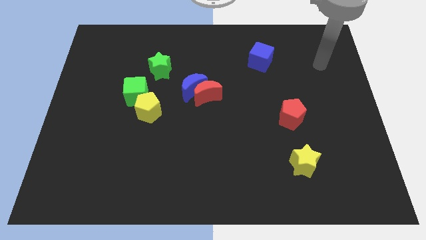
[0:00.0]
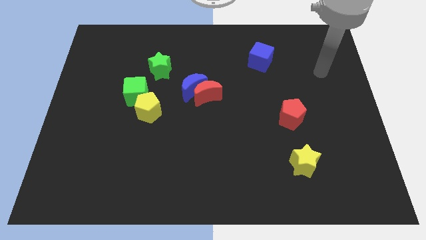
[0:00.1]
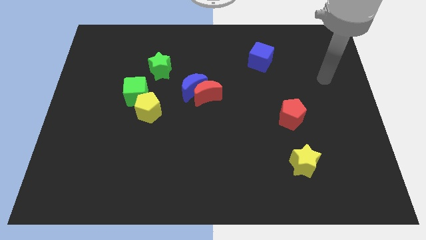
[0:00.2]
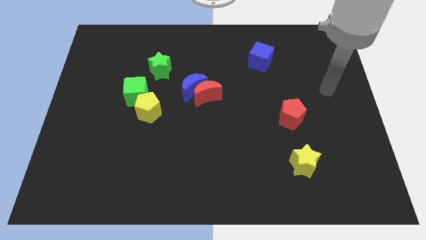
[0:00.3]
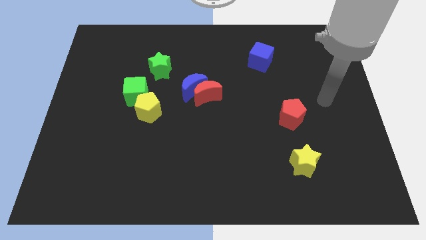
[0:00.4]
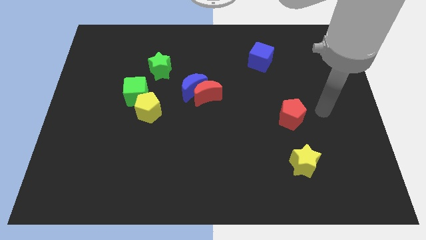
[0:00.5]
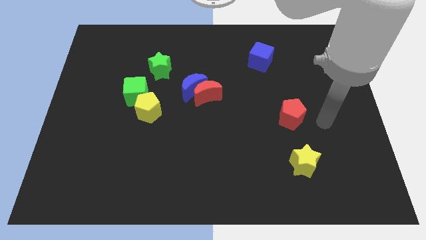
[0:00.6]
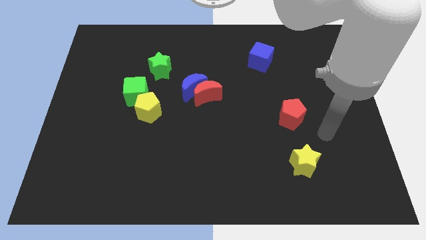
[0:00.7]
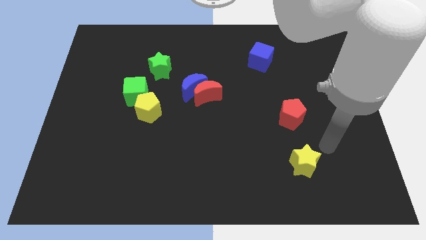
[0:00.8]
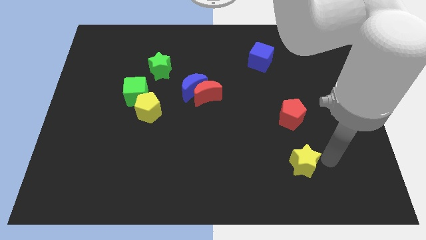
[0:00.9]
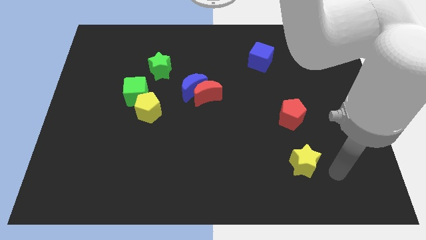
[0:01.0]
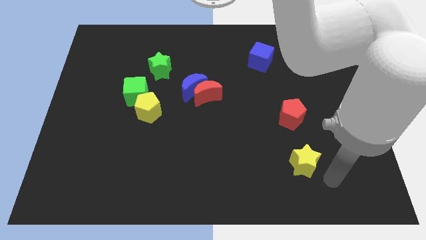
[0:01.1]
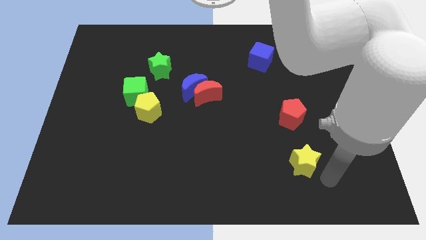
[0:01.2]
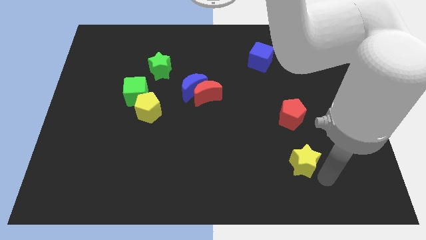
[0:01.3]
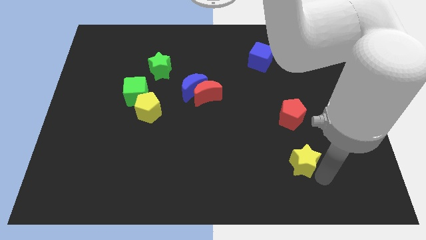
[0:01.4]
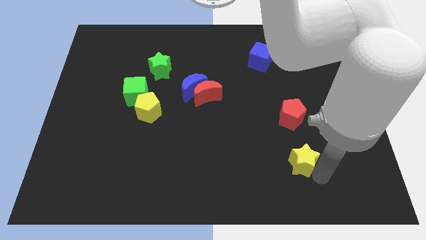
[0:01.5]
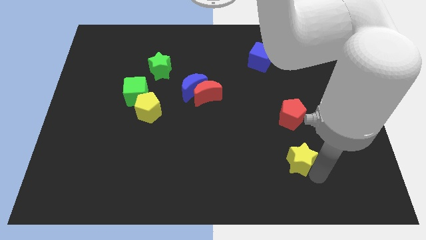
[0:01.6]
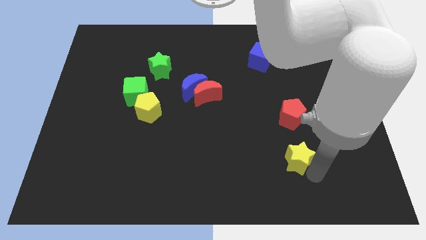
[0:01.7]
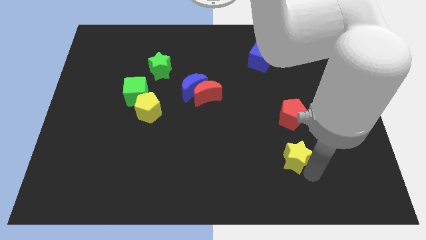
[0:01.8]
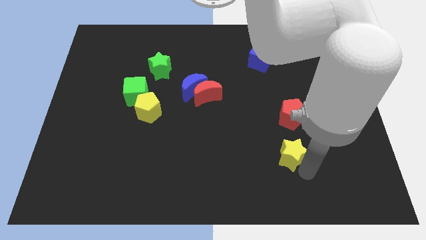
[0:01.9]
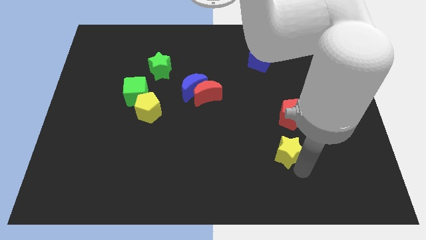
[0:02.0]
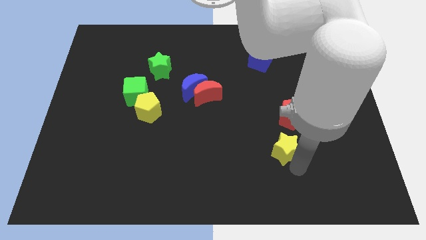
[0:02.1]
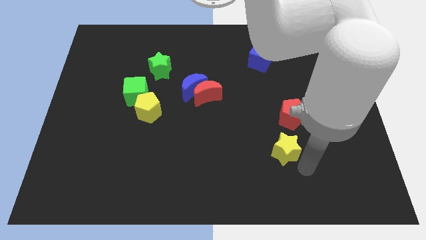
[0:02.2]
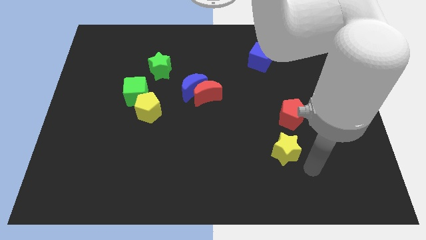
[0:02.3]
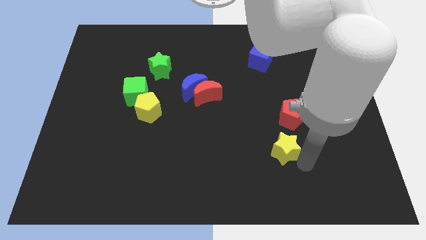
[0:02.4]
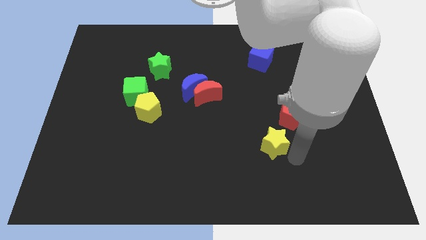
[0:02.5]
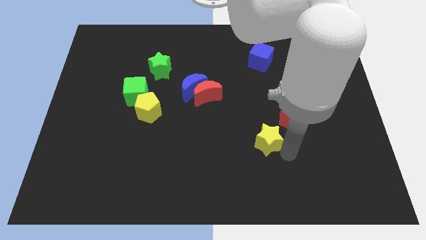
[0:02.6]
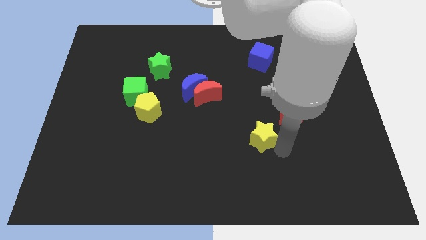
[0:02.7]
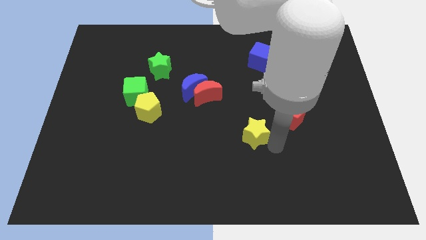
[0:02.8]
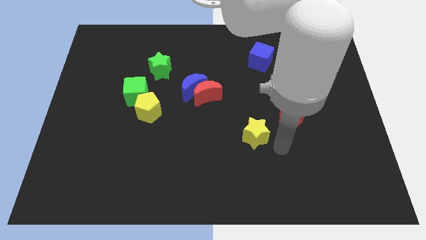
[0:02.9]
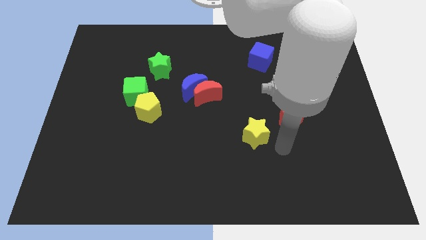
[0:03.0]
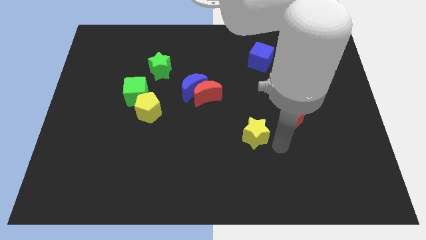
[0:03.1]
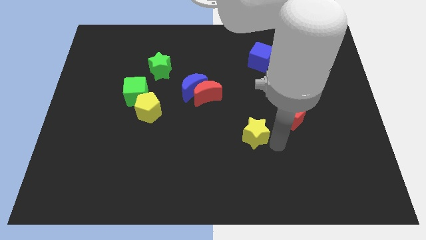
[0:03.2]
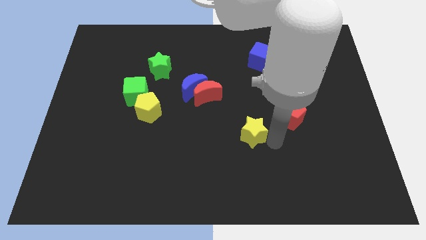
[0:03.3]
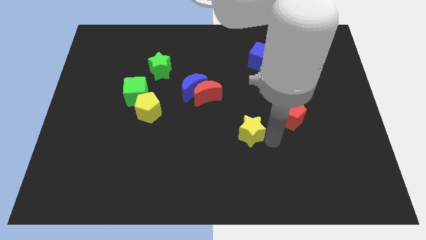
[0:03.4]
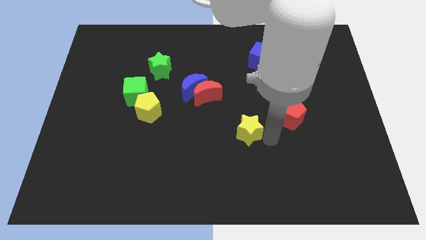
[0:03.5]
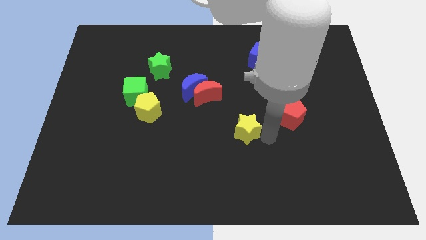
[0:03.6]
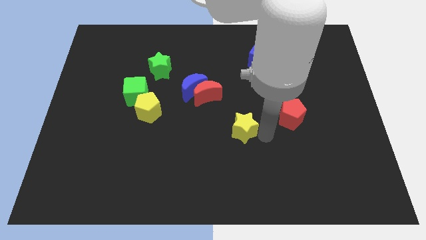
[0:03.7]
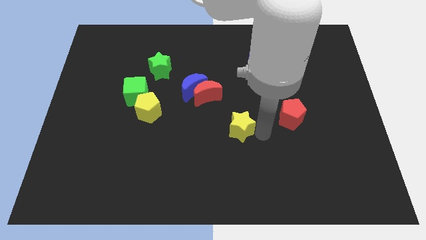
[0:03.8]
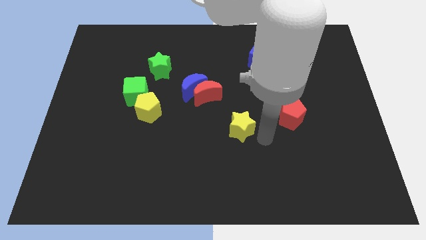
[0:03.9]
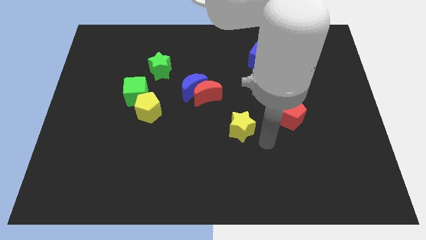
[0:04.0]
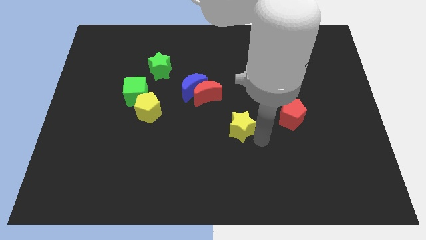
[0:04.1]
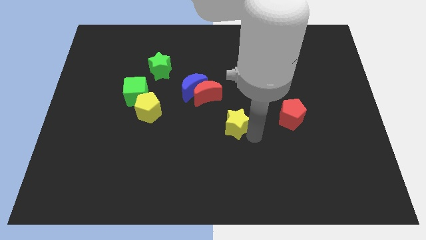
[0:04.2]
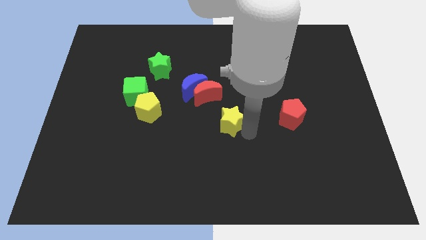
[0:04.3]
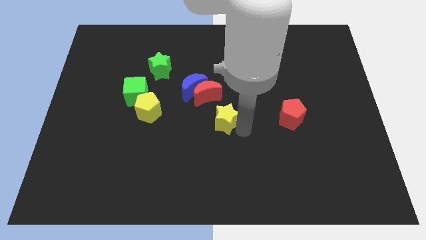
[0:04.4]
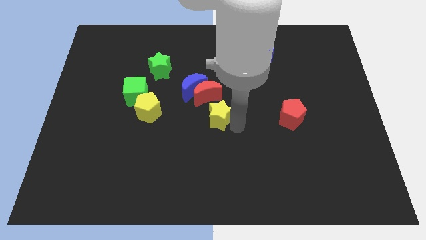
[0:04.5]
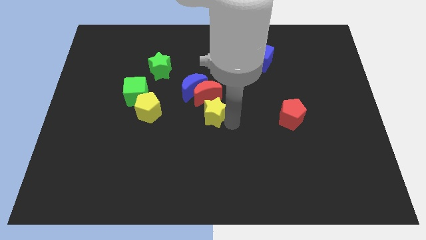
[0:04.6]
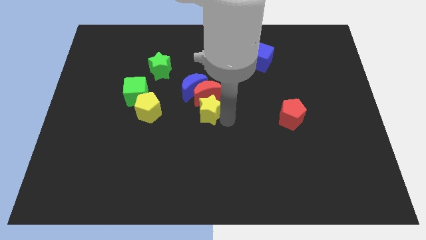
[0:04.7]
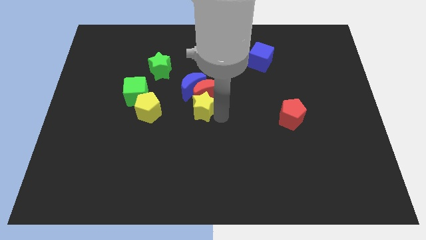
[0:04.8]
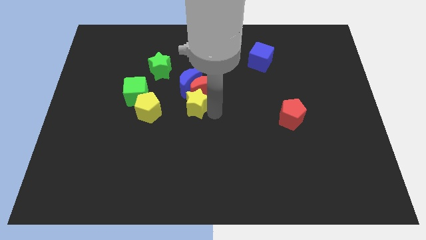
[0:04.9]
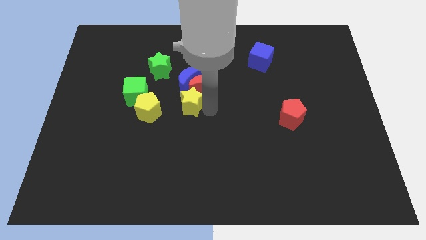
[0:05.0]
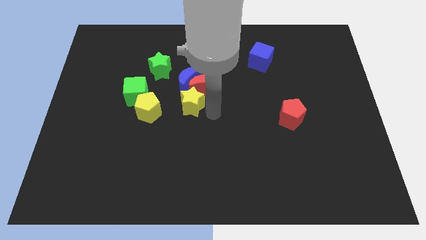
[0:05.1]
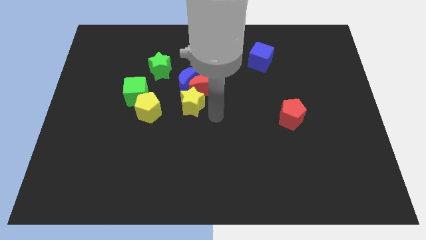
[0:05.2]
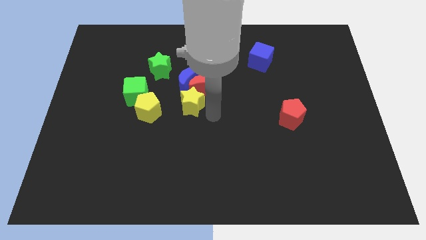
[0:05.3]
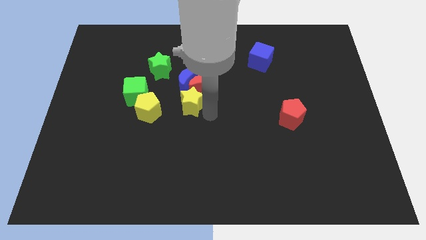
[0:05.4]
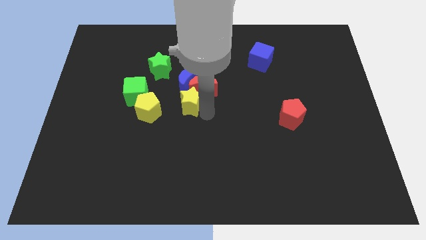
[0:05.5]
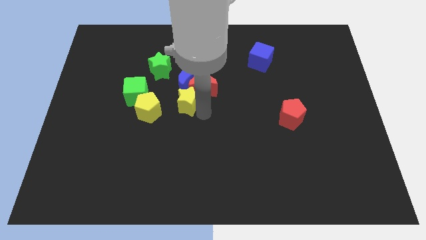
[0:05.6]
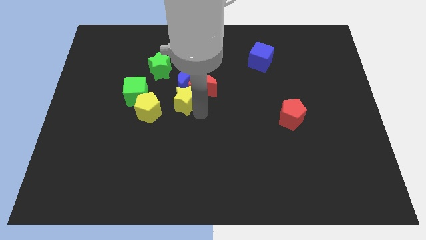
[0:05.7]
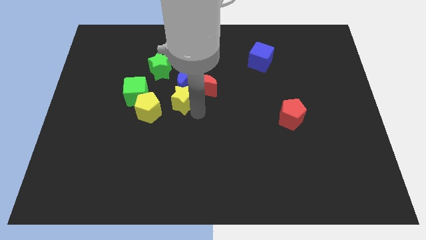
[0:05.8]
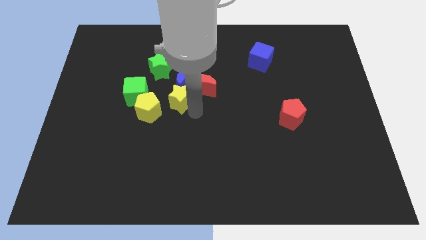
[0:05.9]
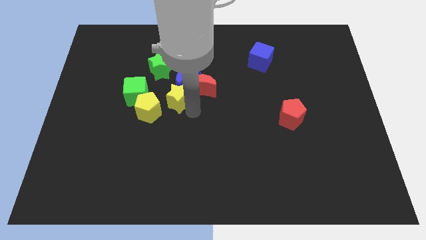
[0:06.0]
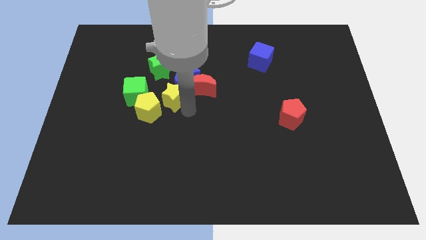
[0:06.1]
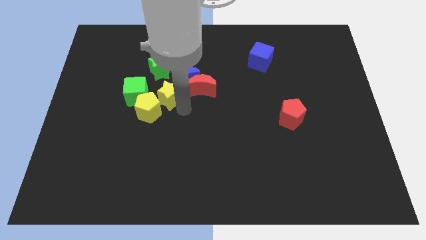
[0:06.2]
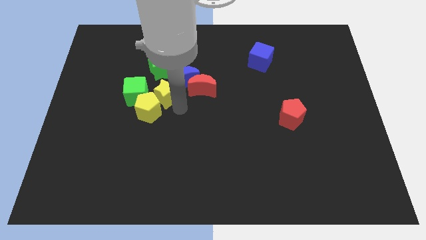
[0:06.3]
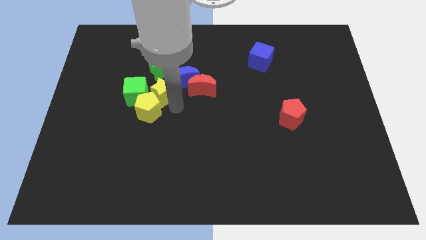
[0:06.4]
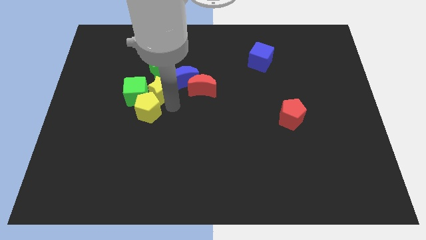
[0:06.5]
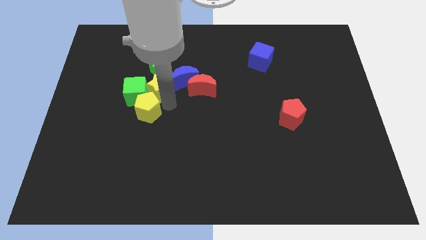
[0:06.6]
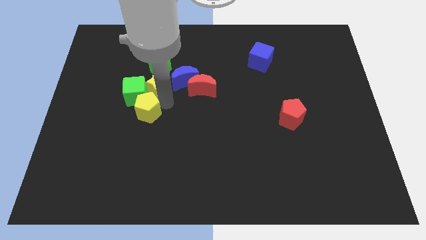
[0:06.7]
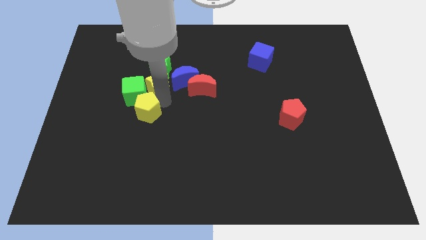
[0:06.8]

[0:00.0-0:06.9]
move the yellow star to the green star
